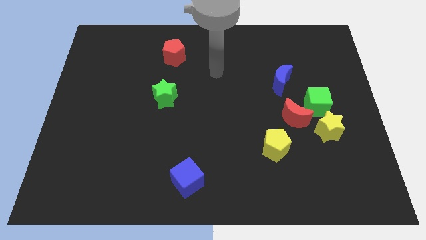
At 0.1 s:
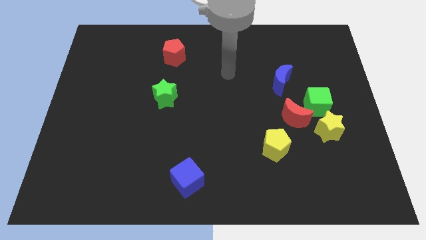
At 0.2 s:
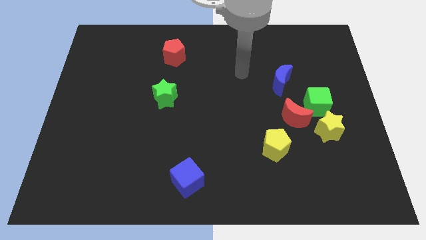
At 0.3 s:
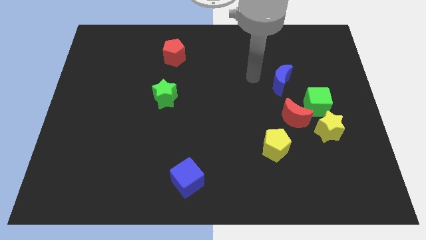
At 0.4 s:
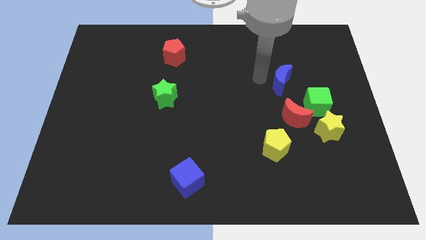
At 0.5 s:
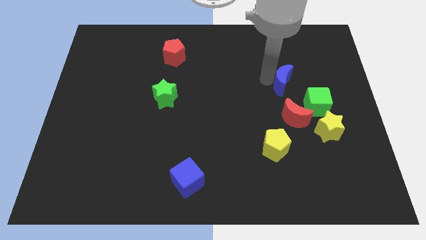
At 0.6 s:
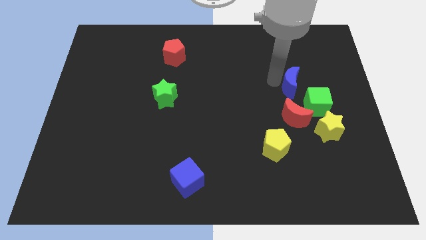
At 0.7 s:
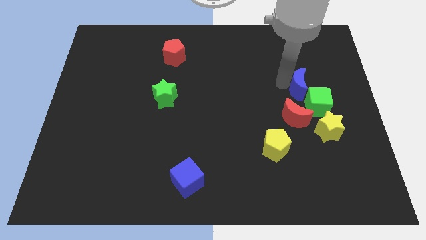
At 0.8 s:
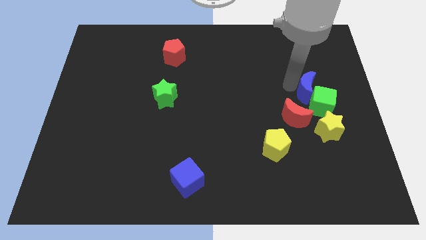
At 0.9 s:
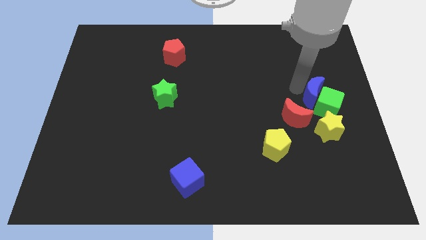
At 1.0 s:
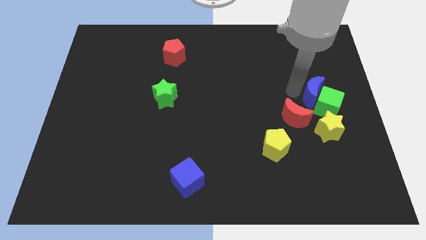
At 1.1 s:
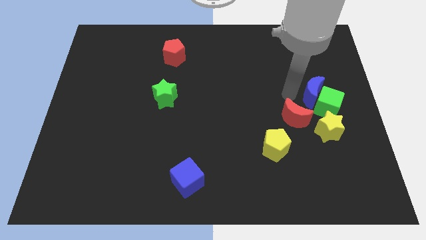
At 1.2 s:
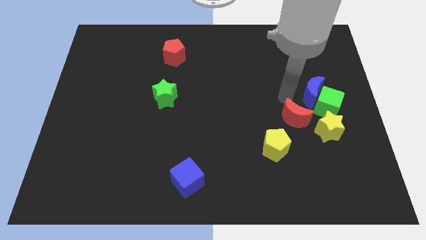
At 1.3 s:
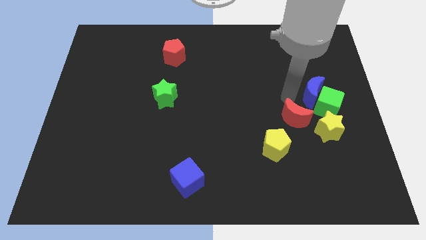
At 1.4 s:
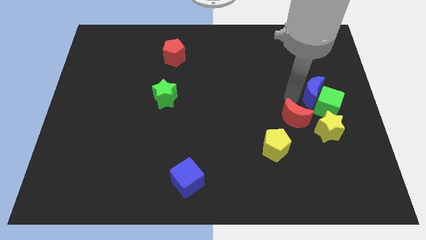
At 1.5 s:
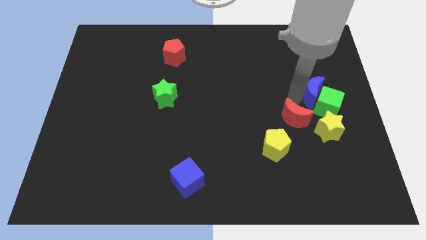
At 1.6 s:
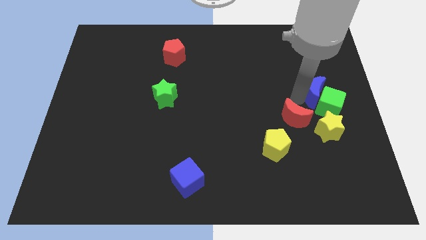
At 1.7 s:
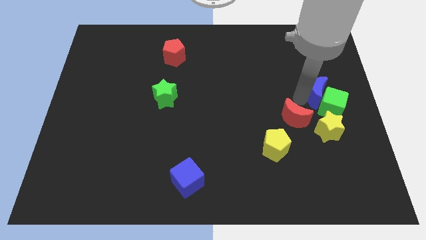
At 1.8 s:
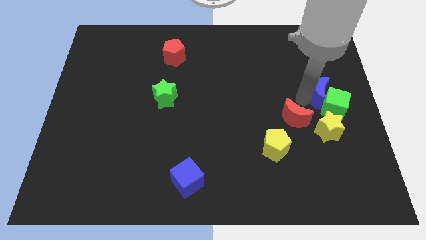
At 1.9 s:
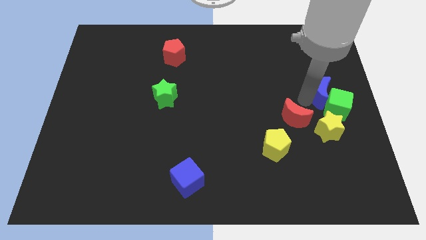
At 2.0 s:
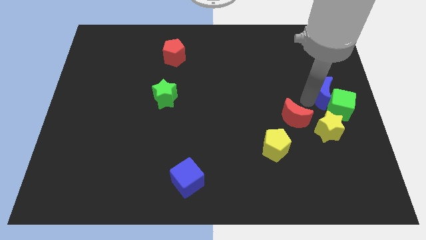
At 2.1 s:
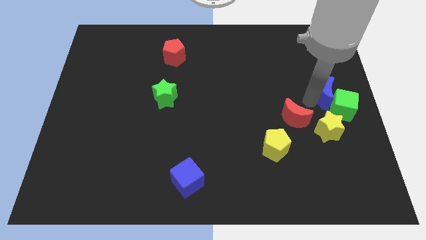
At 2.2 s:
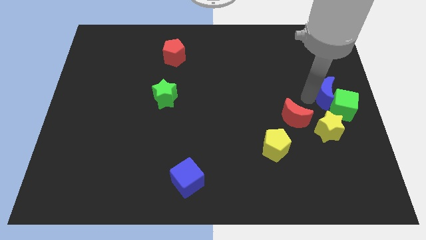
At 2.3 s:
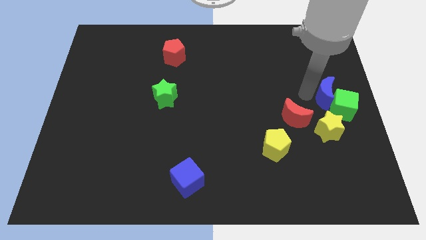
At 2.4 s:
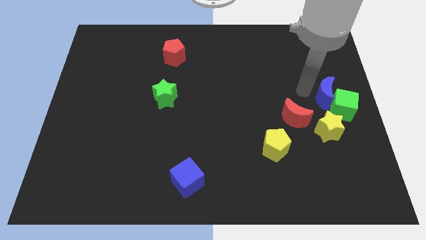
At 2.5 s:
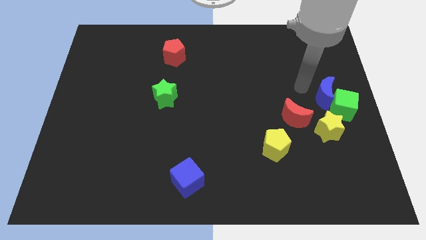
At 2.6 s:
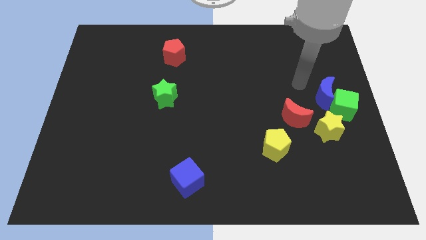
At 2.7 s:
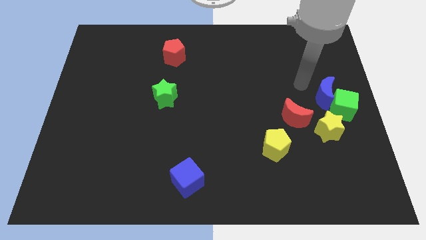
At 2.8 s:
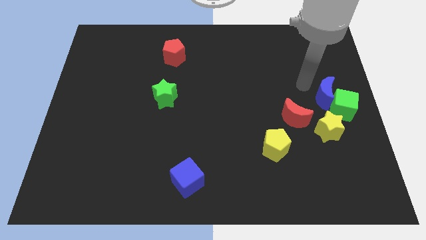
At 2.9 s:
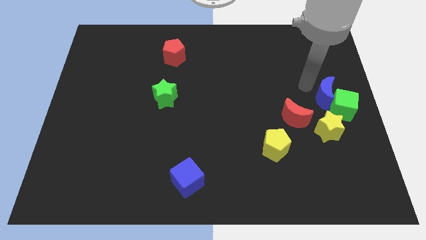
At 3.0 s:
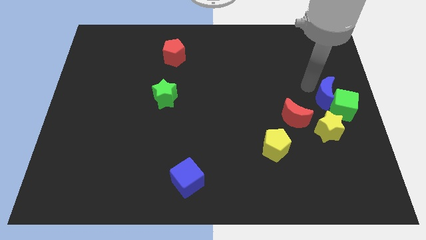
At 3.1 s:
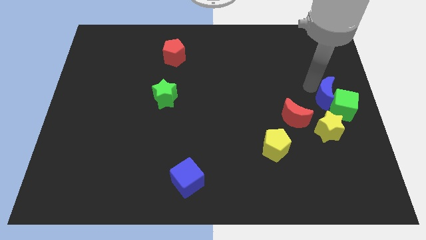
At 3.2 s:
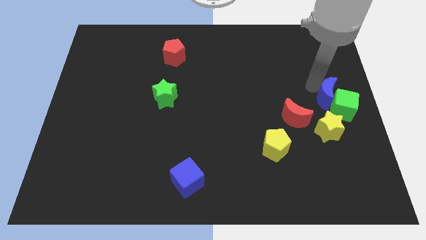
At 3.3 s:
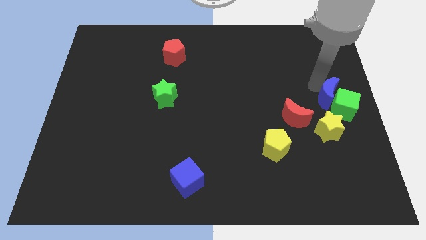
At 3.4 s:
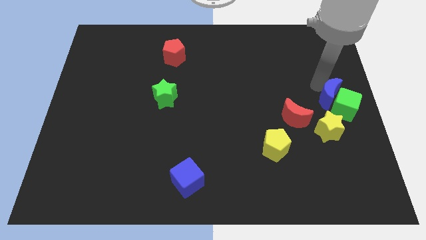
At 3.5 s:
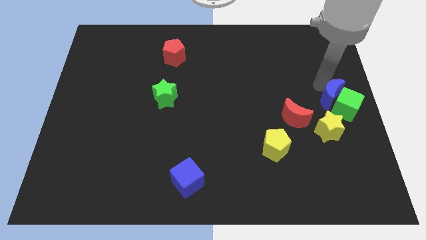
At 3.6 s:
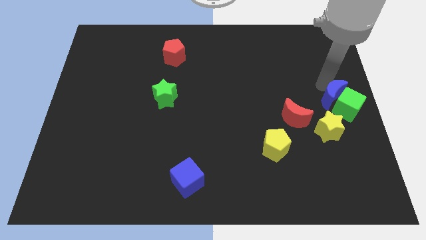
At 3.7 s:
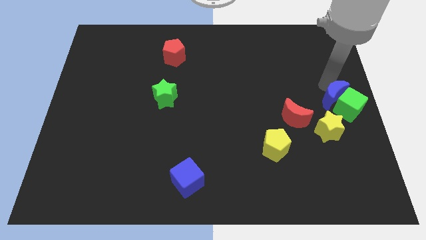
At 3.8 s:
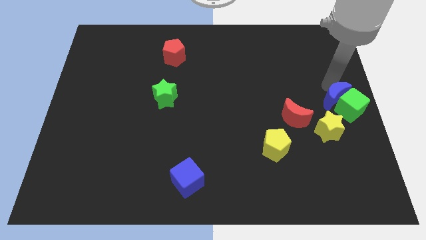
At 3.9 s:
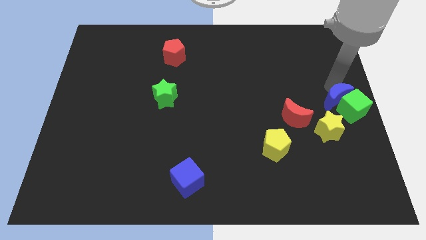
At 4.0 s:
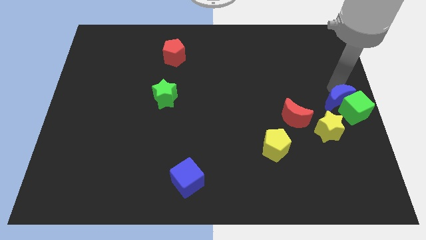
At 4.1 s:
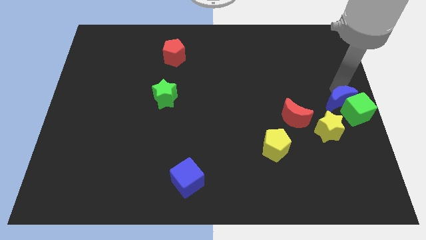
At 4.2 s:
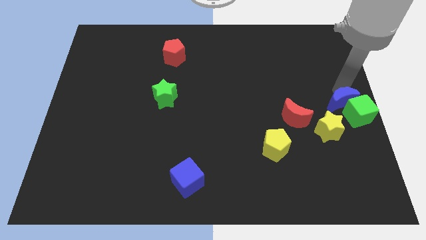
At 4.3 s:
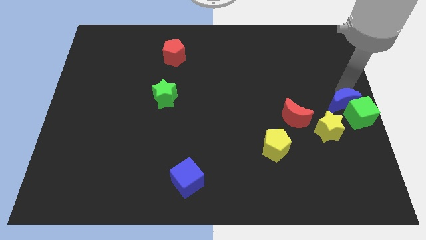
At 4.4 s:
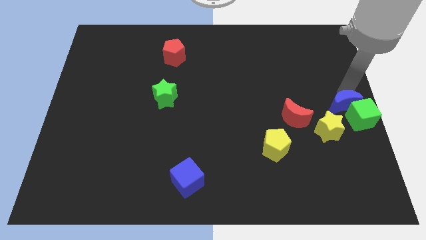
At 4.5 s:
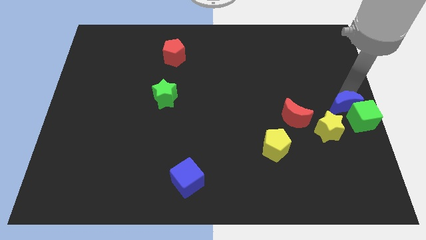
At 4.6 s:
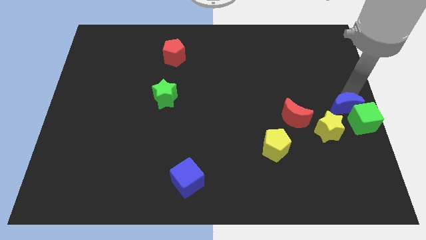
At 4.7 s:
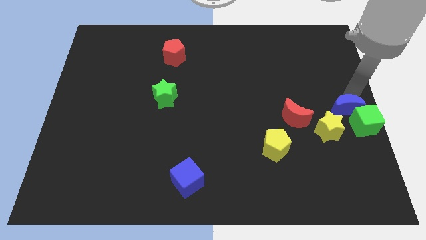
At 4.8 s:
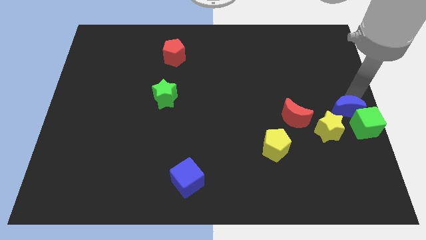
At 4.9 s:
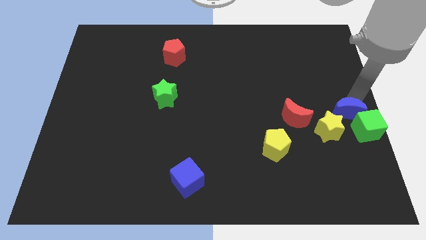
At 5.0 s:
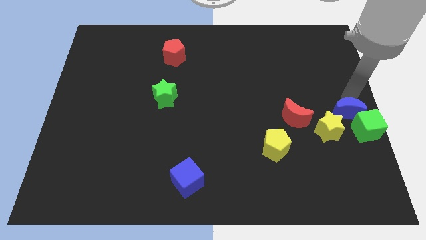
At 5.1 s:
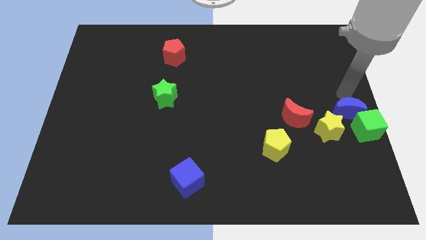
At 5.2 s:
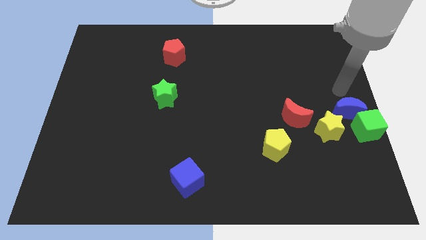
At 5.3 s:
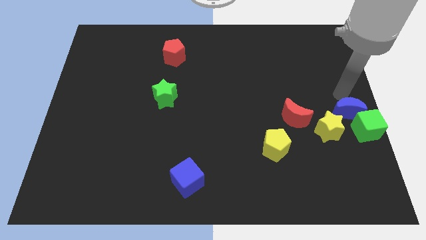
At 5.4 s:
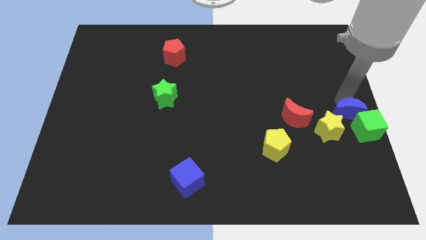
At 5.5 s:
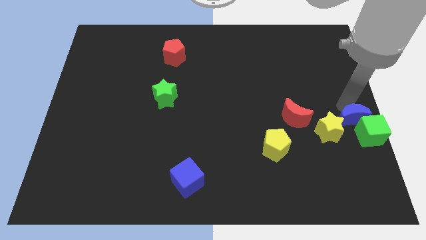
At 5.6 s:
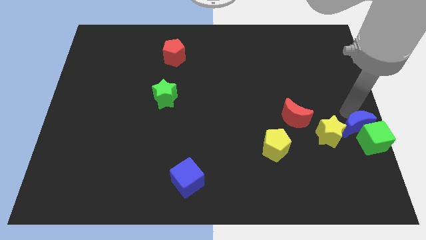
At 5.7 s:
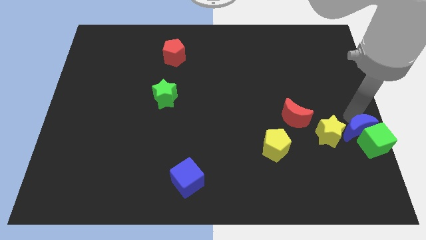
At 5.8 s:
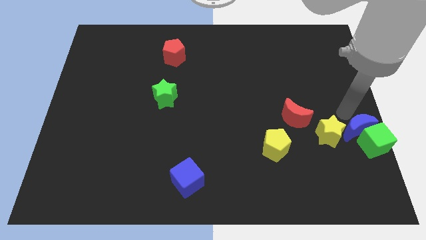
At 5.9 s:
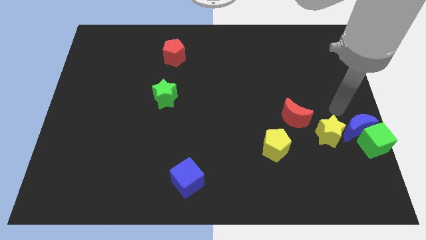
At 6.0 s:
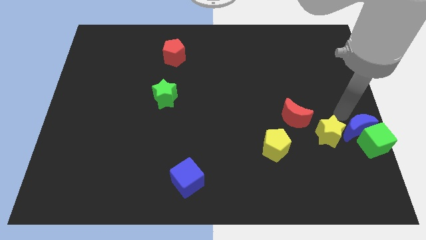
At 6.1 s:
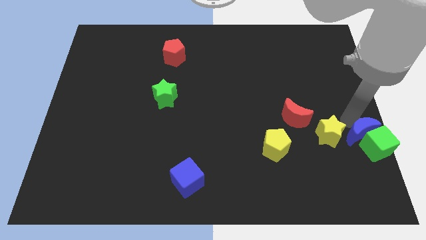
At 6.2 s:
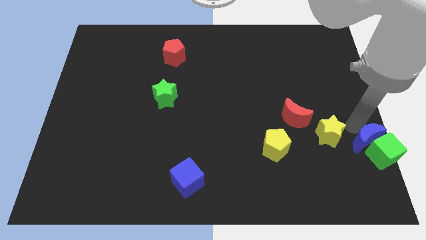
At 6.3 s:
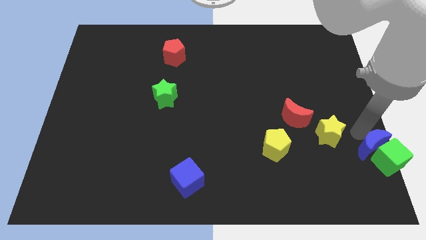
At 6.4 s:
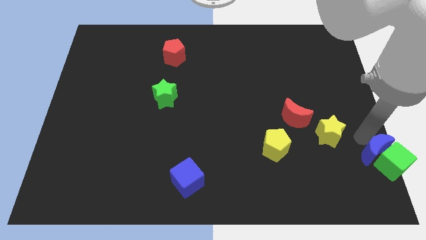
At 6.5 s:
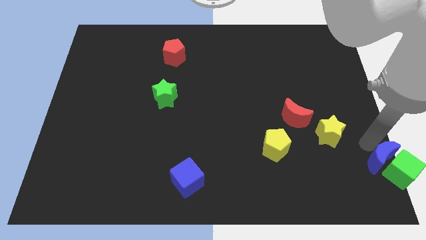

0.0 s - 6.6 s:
move the blue moon to the bottom right of the board
